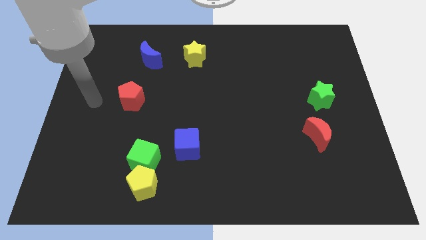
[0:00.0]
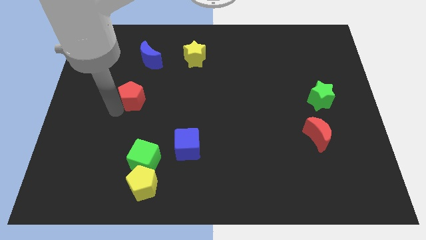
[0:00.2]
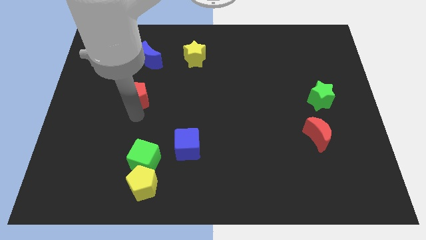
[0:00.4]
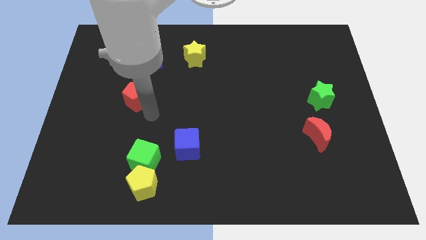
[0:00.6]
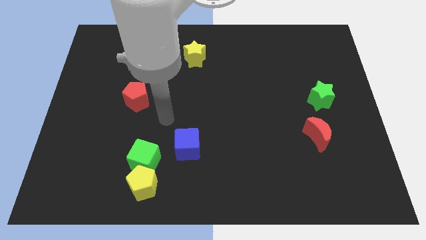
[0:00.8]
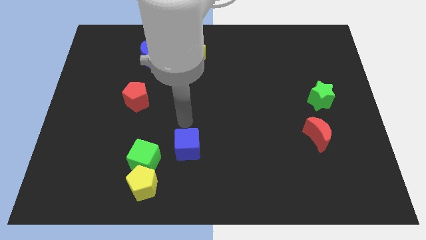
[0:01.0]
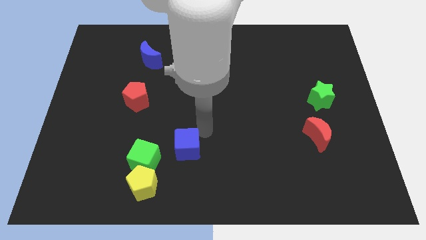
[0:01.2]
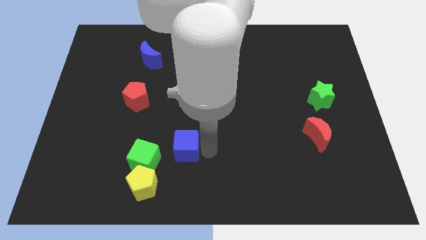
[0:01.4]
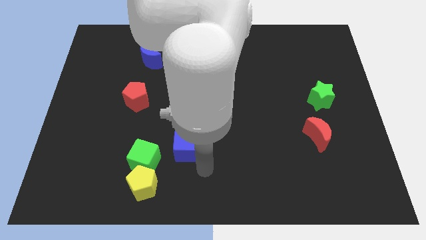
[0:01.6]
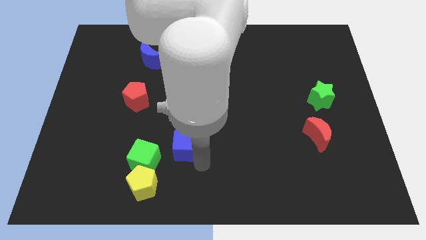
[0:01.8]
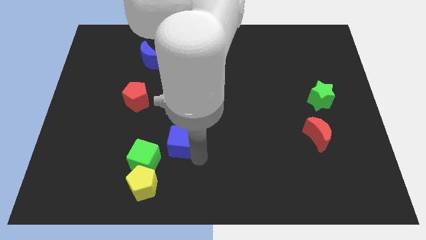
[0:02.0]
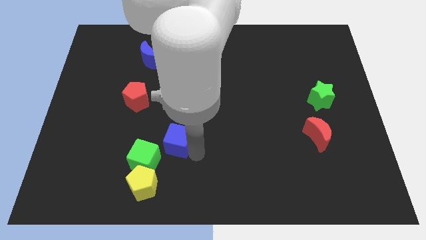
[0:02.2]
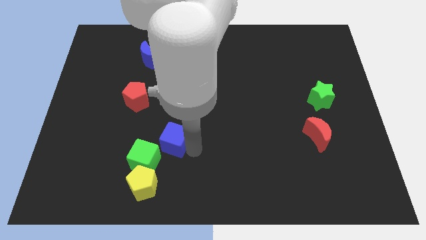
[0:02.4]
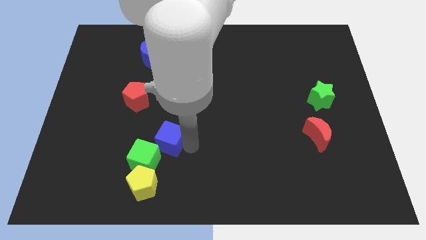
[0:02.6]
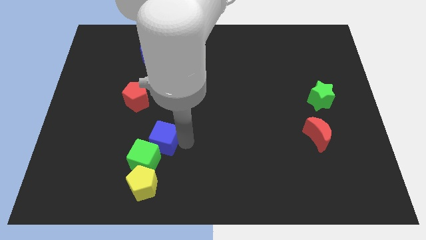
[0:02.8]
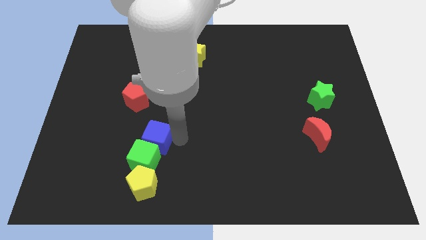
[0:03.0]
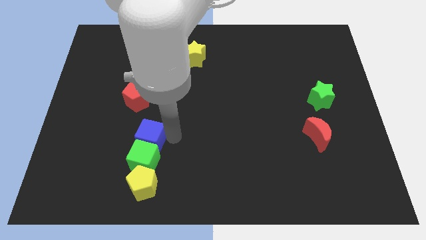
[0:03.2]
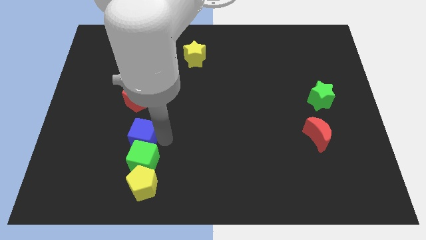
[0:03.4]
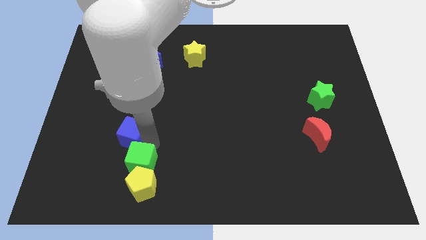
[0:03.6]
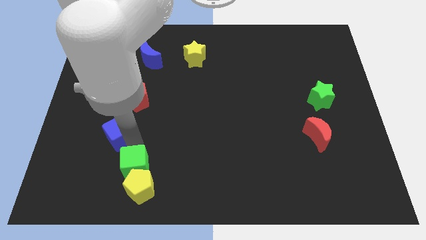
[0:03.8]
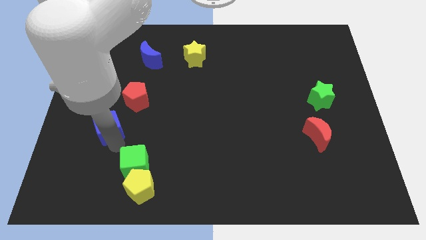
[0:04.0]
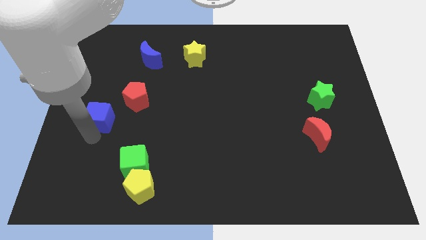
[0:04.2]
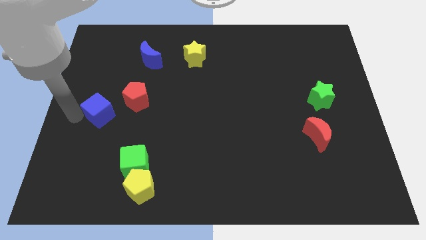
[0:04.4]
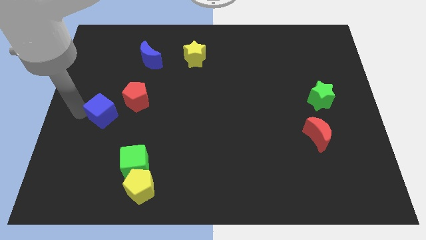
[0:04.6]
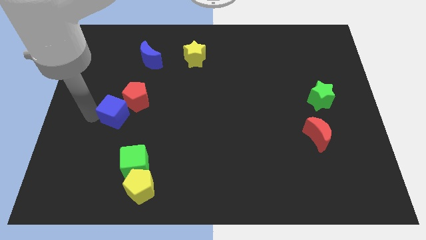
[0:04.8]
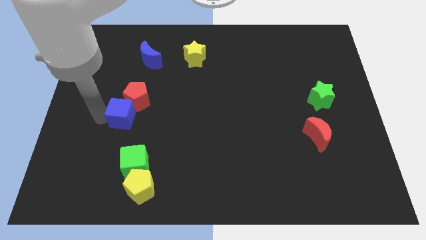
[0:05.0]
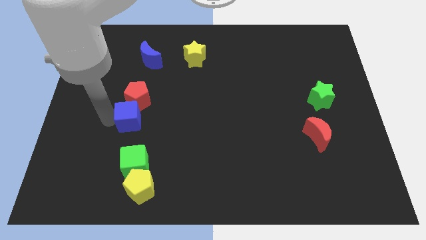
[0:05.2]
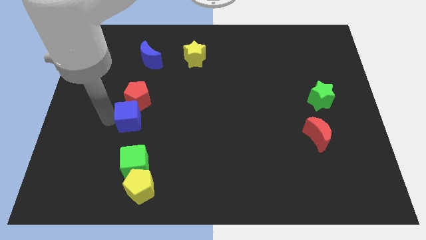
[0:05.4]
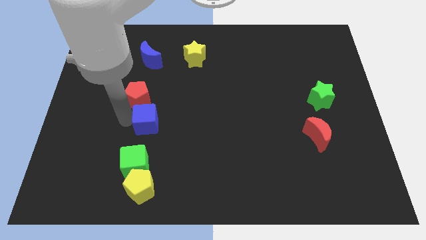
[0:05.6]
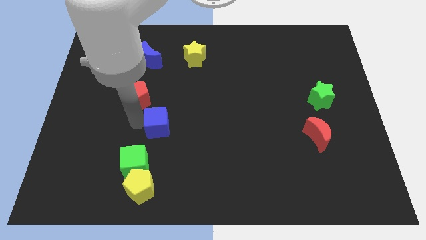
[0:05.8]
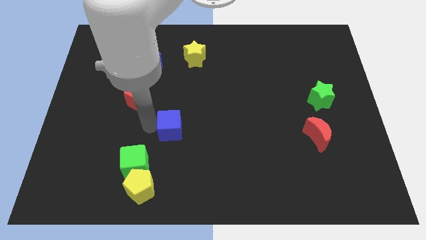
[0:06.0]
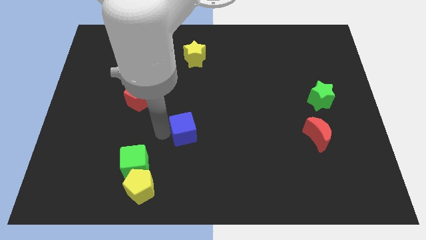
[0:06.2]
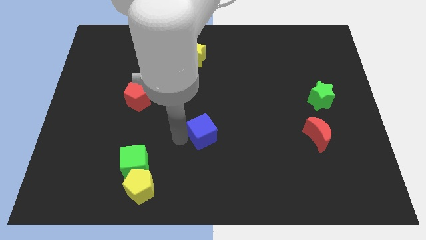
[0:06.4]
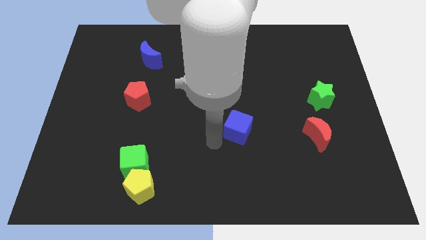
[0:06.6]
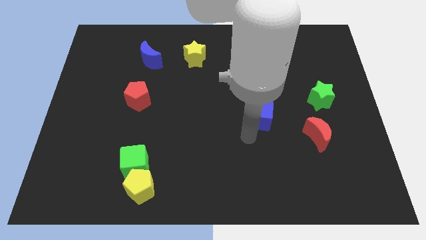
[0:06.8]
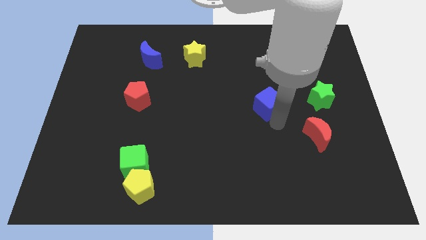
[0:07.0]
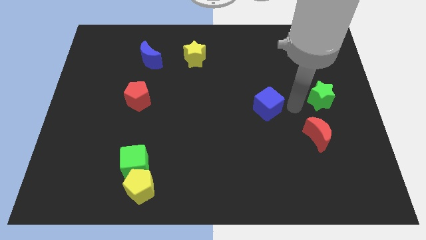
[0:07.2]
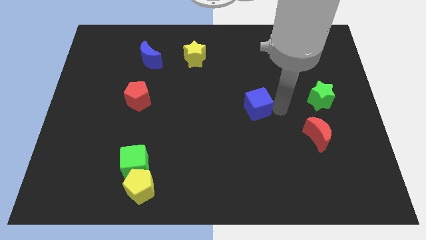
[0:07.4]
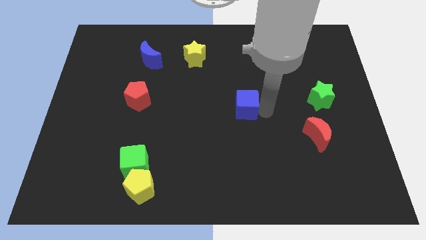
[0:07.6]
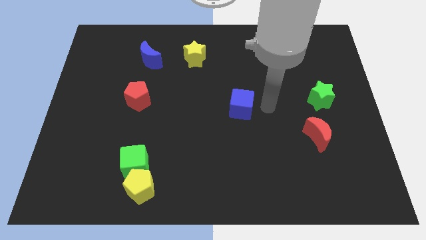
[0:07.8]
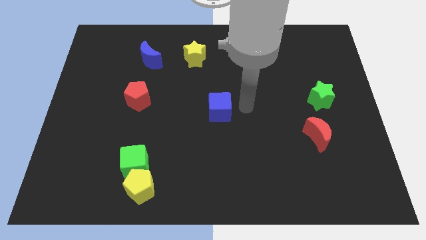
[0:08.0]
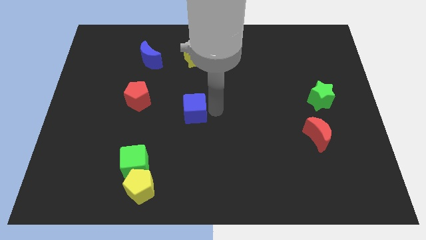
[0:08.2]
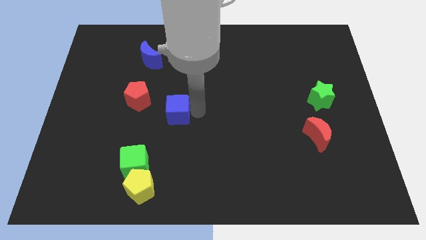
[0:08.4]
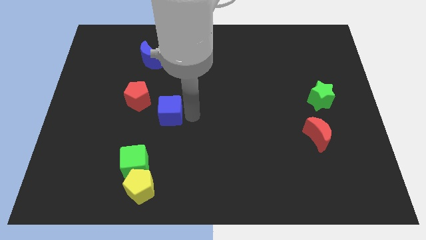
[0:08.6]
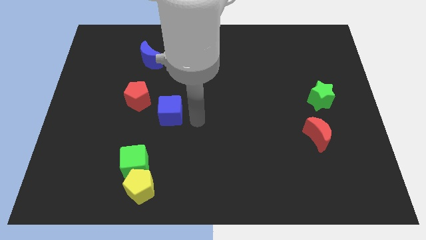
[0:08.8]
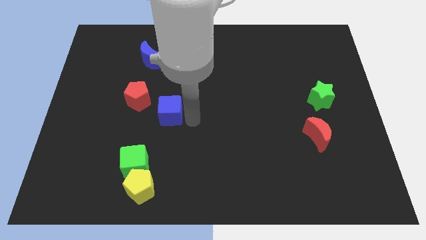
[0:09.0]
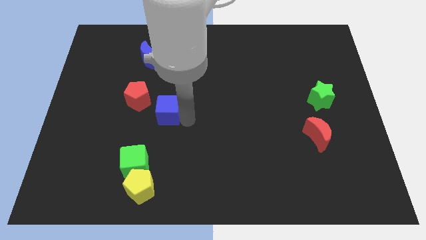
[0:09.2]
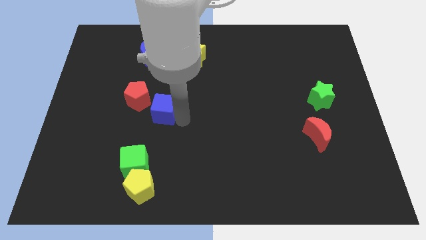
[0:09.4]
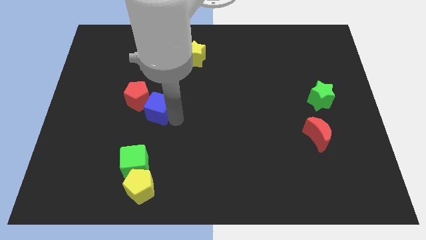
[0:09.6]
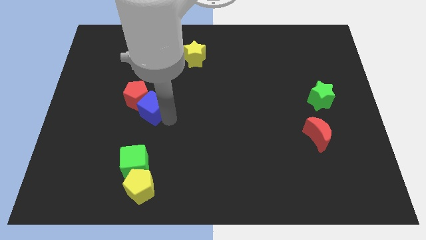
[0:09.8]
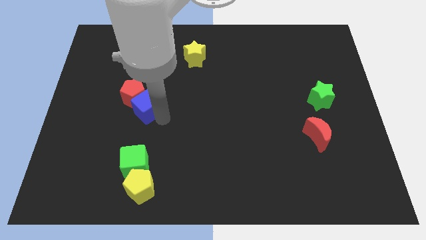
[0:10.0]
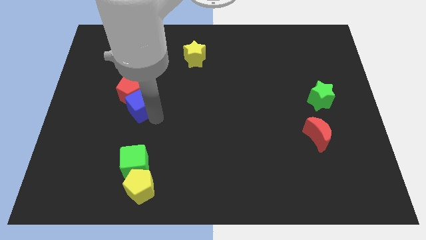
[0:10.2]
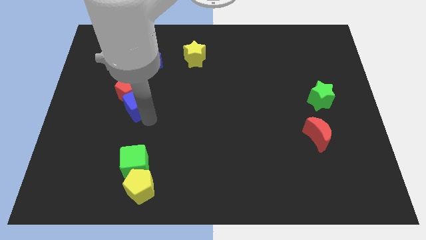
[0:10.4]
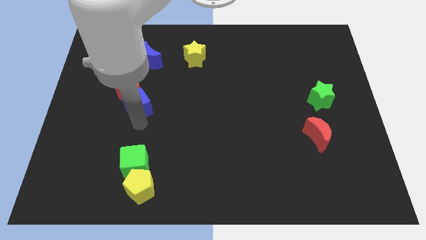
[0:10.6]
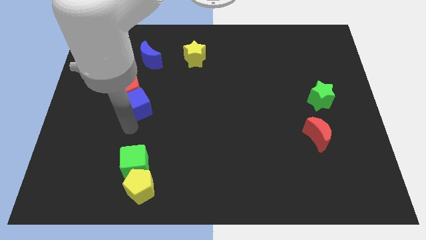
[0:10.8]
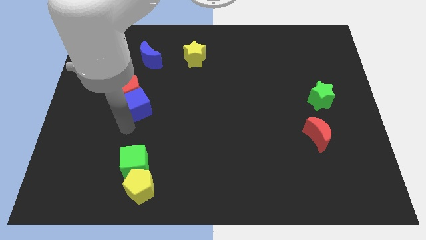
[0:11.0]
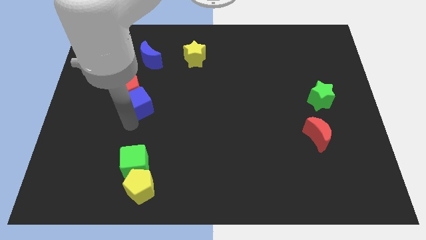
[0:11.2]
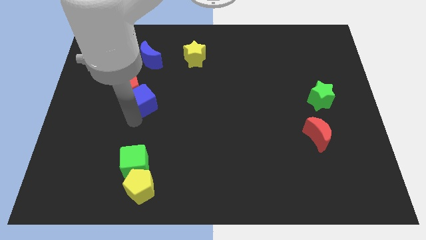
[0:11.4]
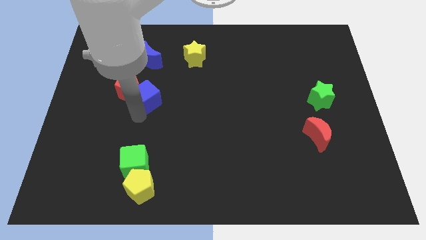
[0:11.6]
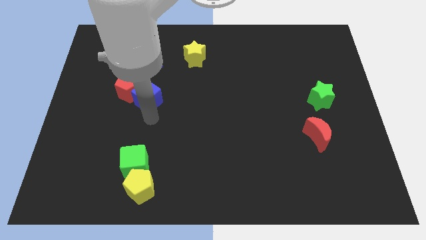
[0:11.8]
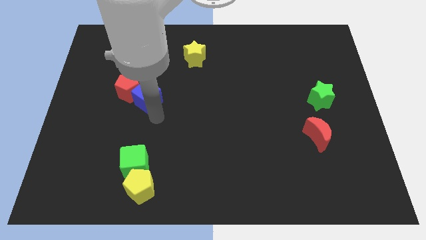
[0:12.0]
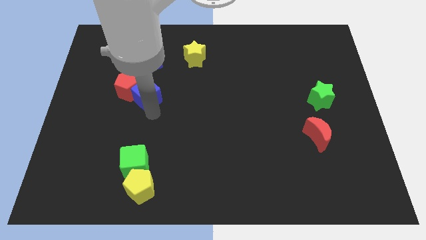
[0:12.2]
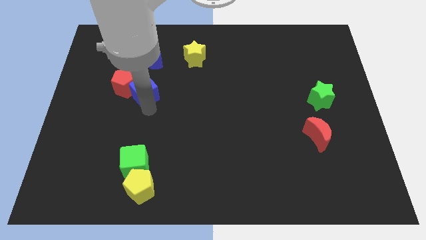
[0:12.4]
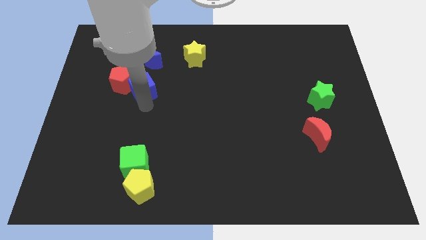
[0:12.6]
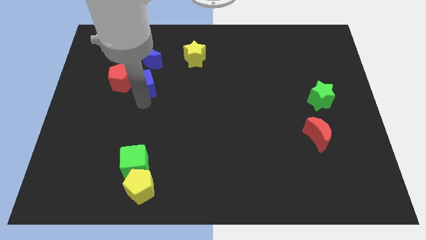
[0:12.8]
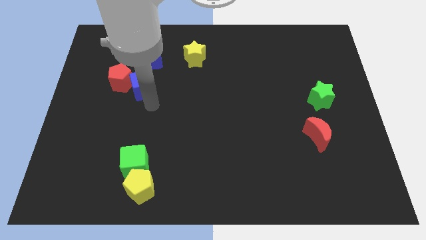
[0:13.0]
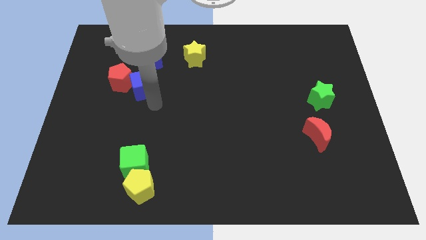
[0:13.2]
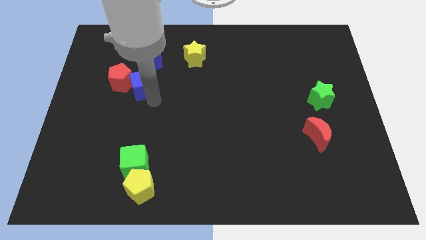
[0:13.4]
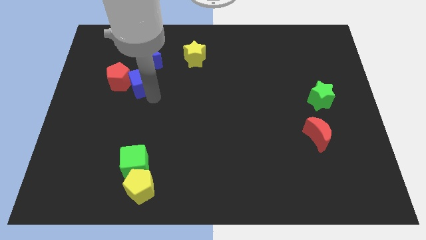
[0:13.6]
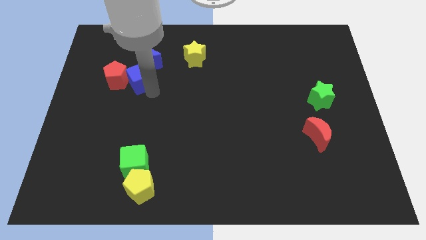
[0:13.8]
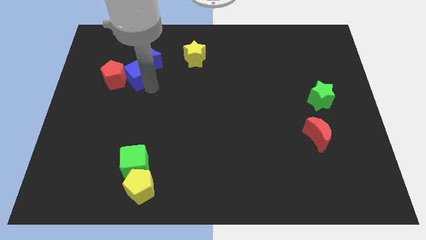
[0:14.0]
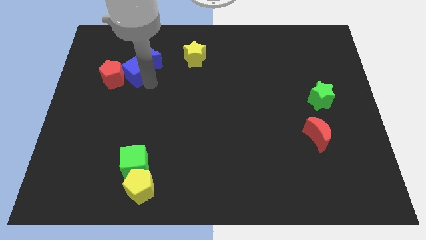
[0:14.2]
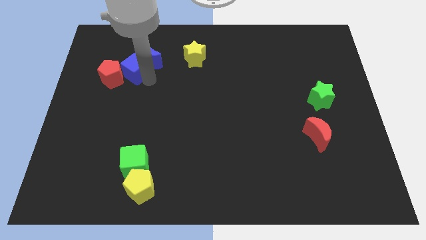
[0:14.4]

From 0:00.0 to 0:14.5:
move the blue cube just left of the blue moon

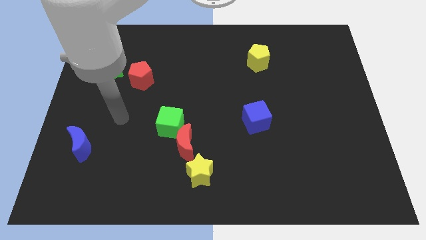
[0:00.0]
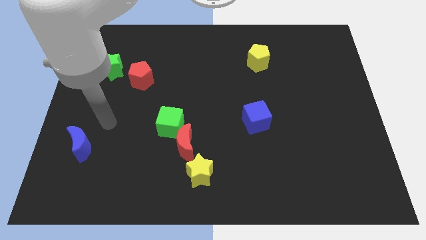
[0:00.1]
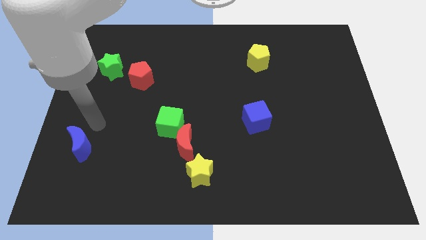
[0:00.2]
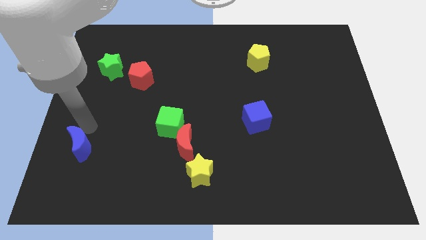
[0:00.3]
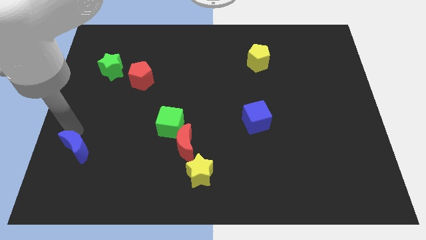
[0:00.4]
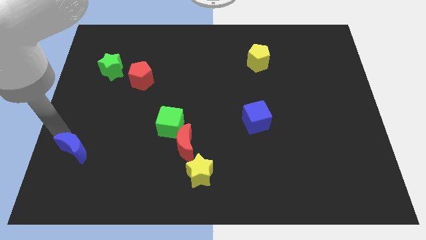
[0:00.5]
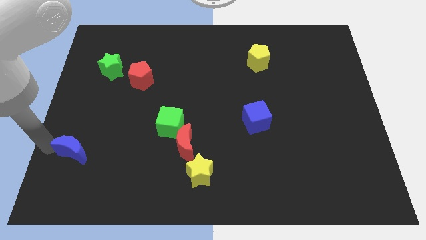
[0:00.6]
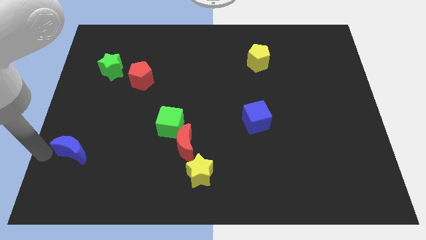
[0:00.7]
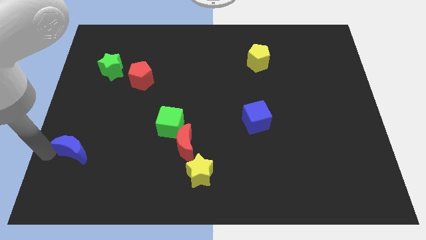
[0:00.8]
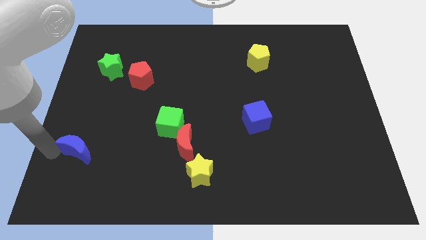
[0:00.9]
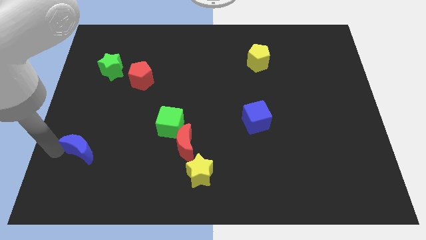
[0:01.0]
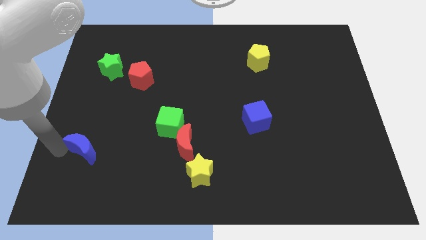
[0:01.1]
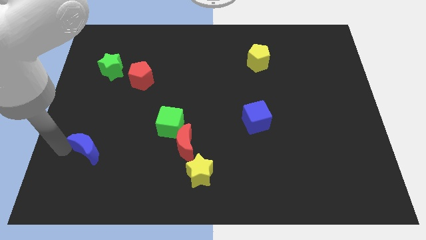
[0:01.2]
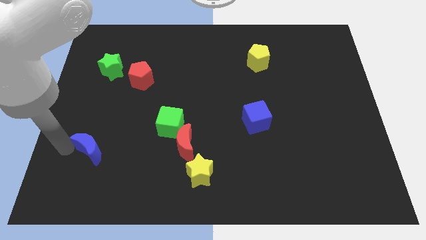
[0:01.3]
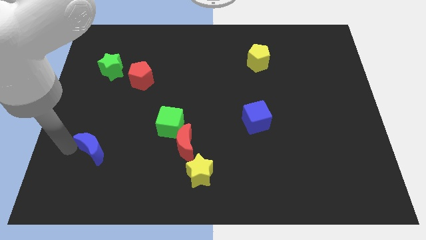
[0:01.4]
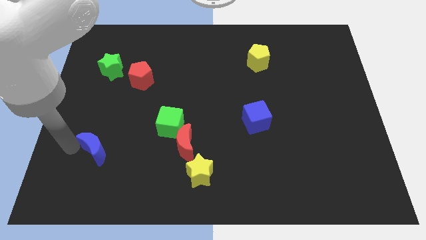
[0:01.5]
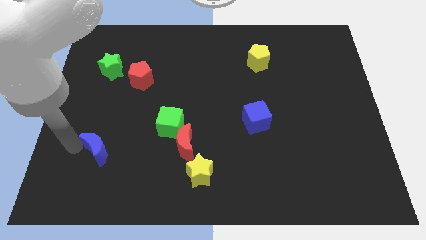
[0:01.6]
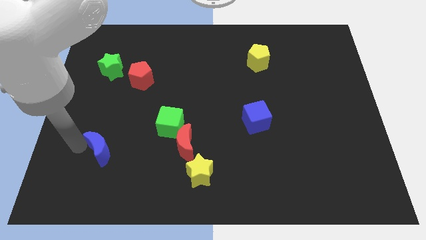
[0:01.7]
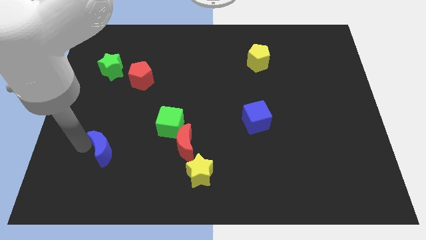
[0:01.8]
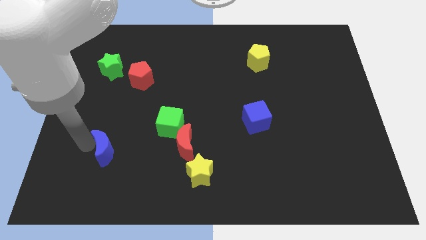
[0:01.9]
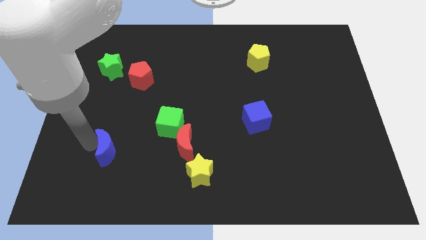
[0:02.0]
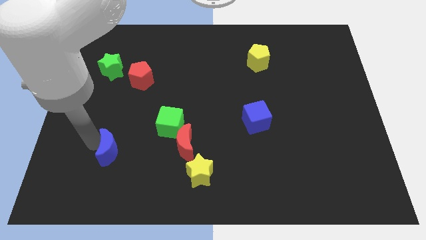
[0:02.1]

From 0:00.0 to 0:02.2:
put the blue moon to the left side of the red moon
